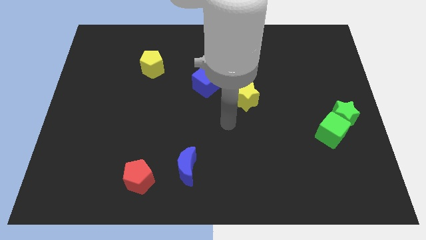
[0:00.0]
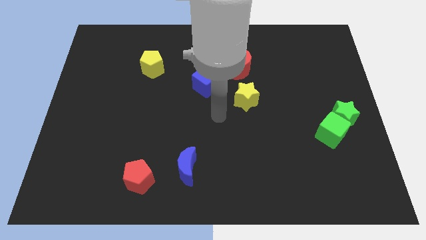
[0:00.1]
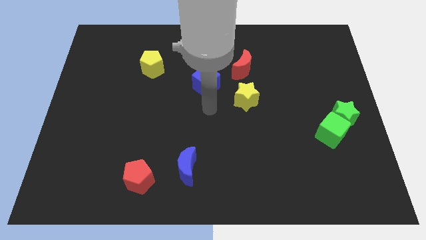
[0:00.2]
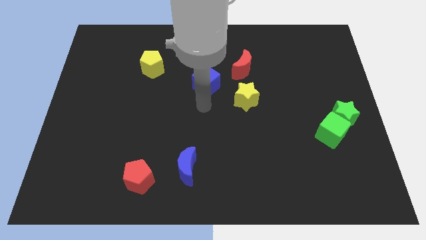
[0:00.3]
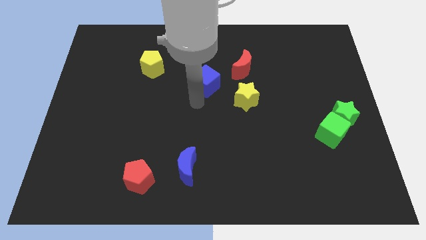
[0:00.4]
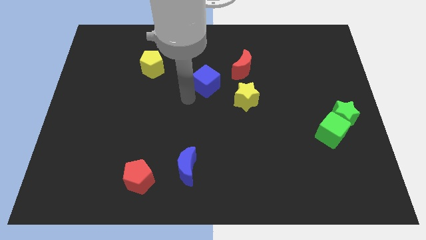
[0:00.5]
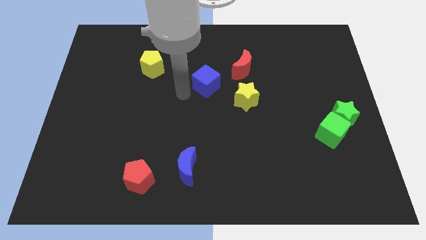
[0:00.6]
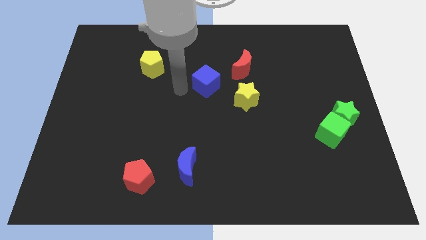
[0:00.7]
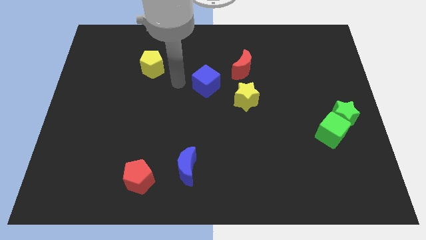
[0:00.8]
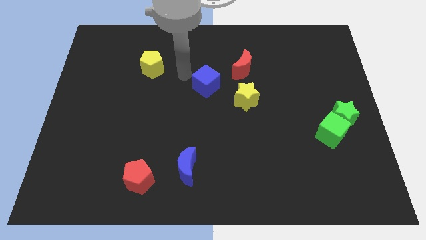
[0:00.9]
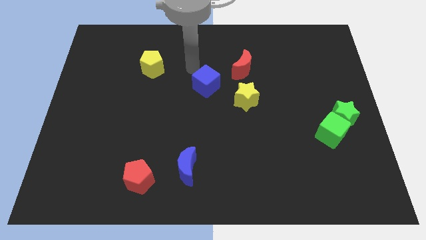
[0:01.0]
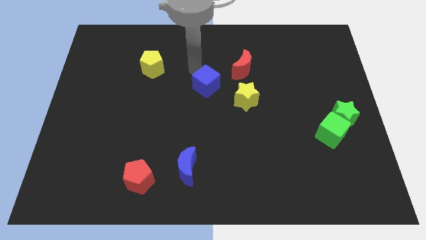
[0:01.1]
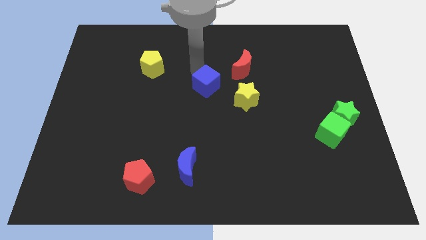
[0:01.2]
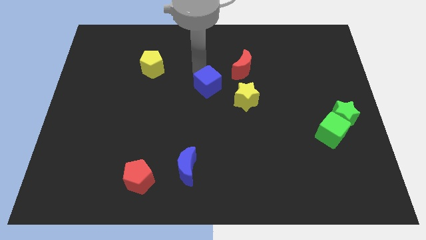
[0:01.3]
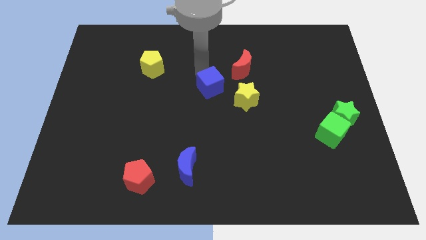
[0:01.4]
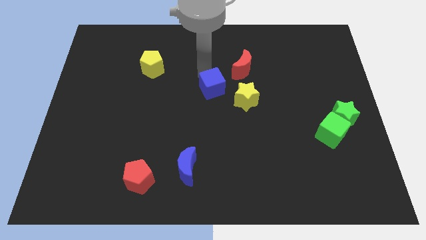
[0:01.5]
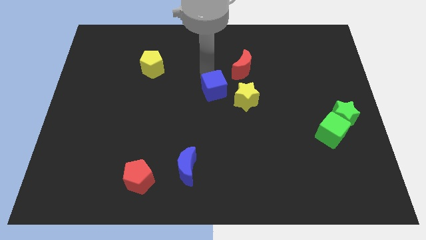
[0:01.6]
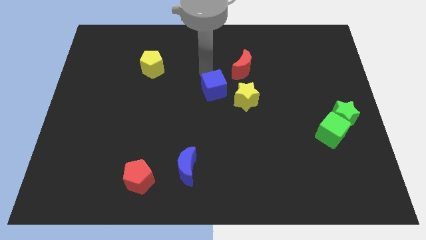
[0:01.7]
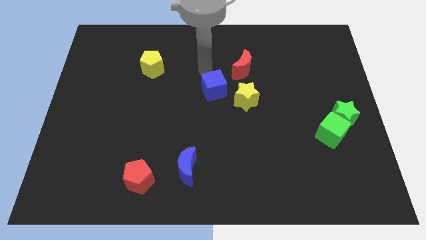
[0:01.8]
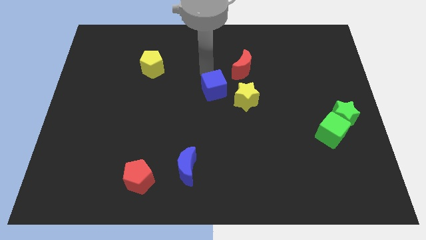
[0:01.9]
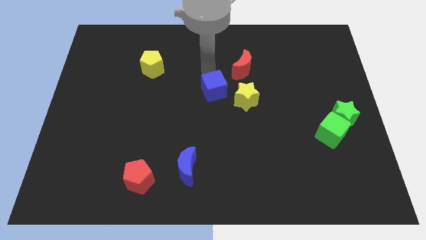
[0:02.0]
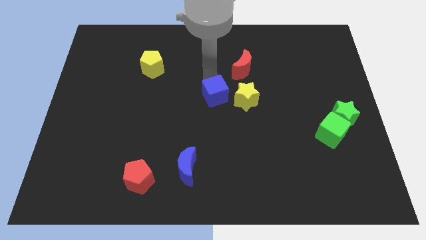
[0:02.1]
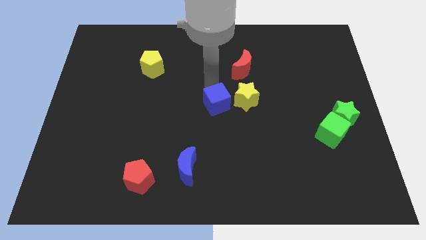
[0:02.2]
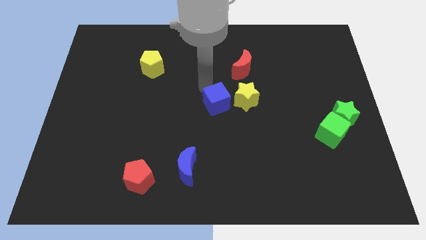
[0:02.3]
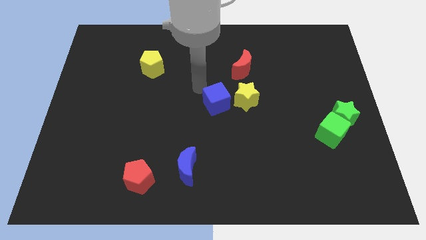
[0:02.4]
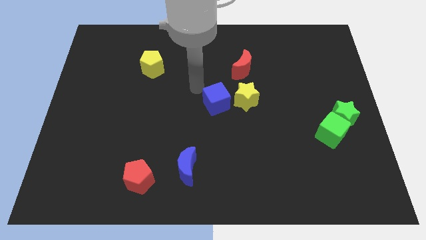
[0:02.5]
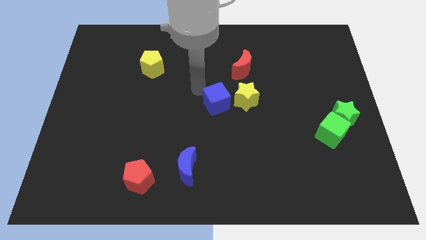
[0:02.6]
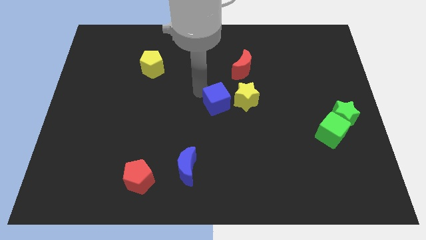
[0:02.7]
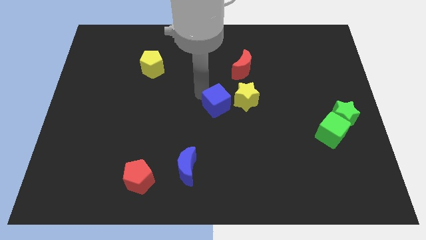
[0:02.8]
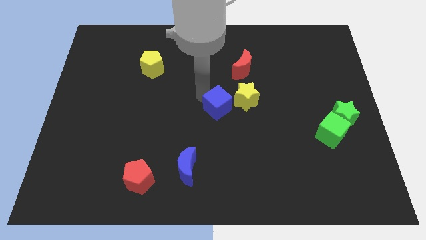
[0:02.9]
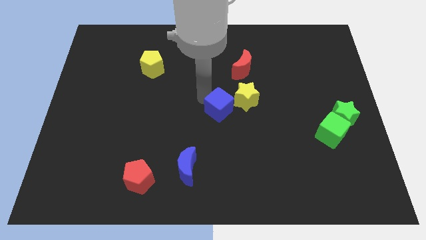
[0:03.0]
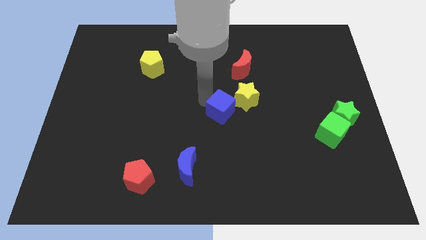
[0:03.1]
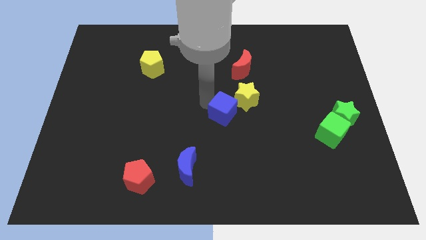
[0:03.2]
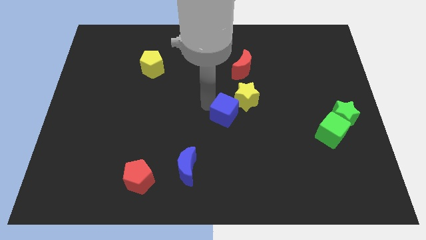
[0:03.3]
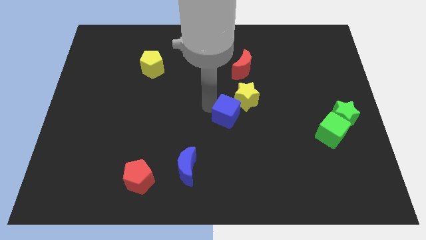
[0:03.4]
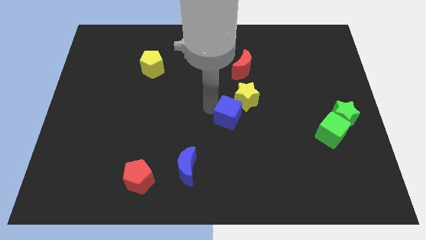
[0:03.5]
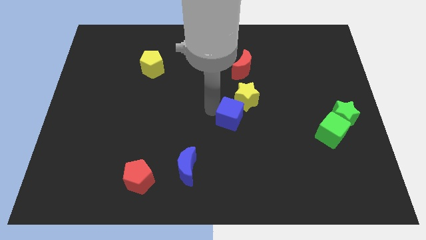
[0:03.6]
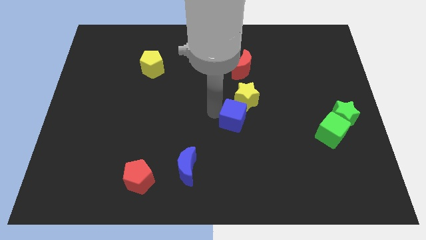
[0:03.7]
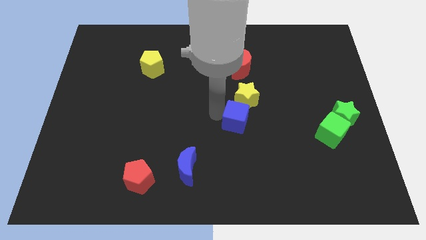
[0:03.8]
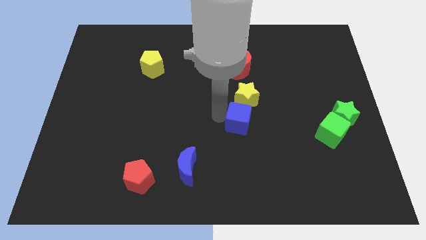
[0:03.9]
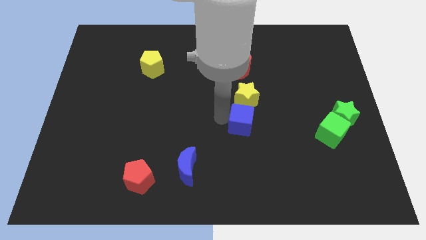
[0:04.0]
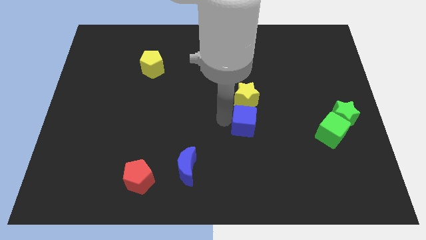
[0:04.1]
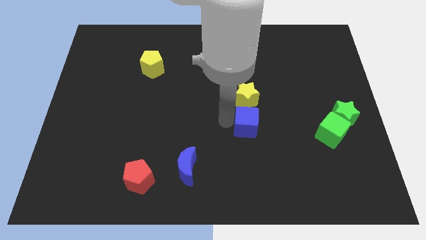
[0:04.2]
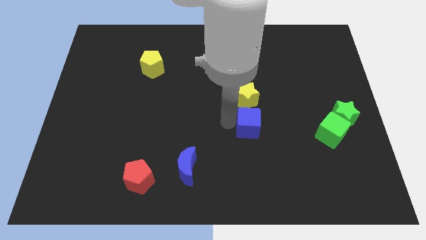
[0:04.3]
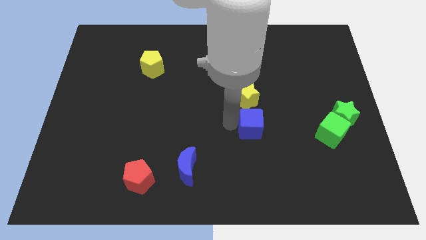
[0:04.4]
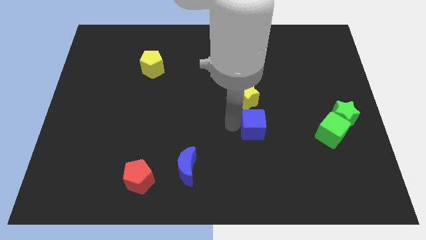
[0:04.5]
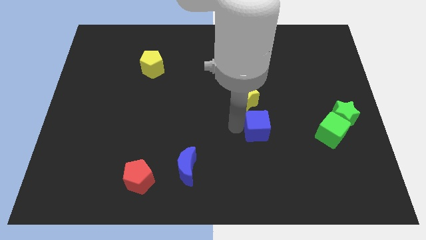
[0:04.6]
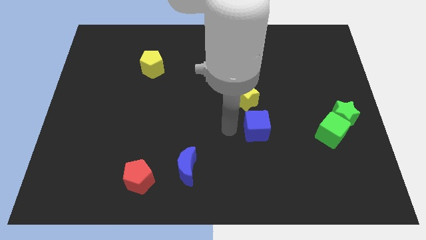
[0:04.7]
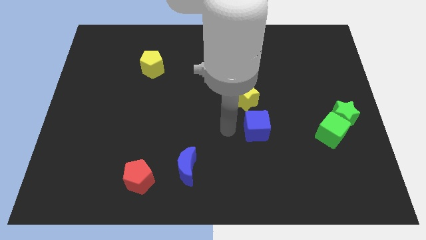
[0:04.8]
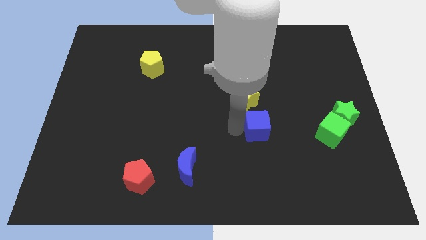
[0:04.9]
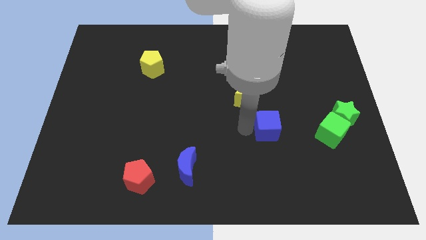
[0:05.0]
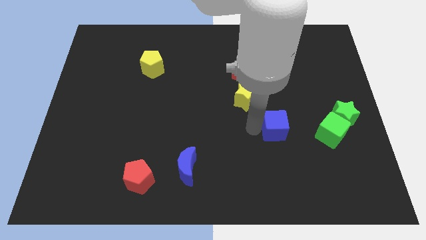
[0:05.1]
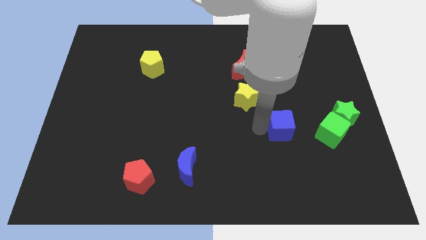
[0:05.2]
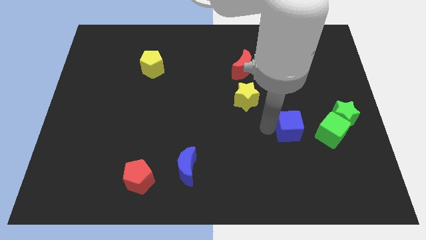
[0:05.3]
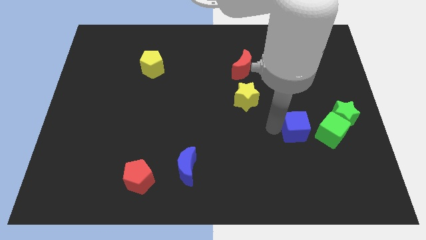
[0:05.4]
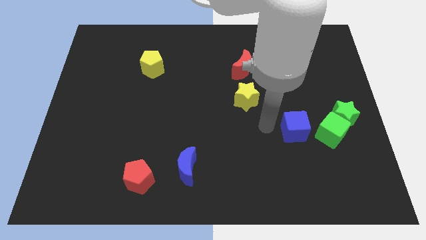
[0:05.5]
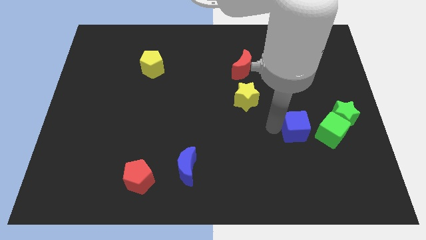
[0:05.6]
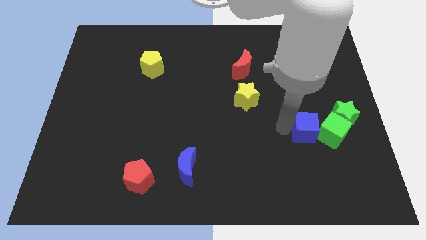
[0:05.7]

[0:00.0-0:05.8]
slide the blue cube to the green cube

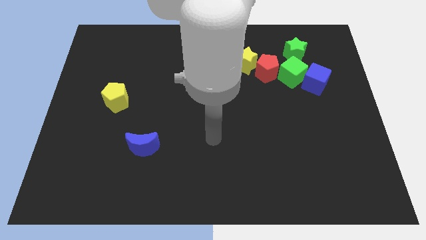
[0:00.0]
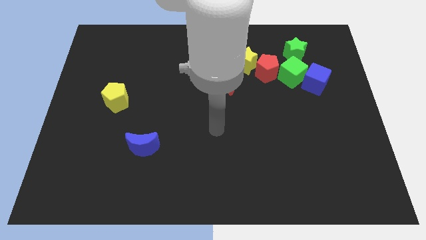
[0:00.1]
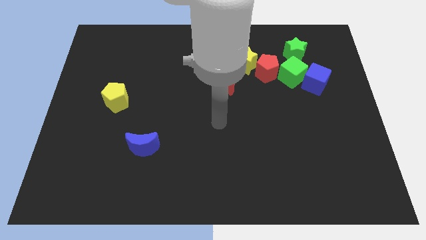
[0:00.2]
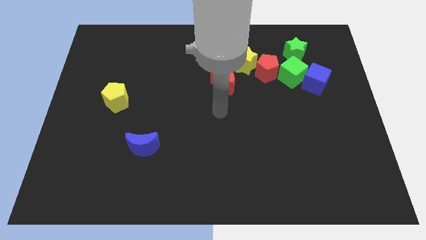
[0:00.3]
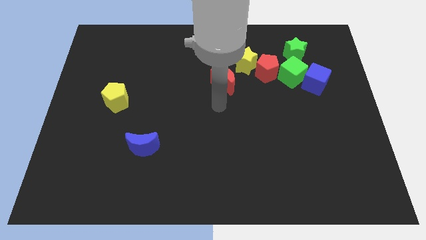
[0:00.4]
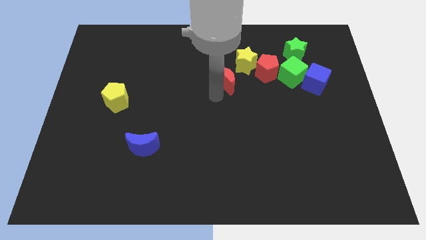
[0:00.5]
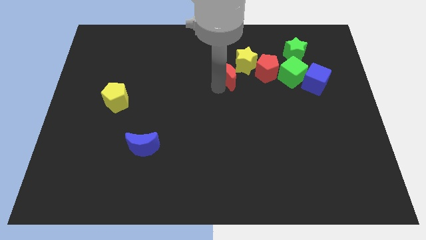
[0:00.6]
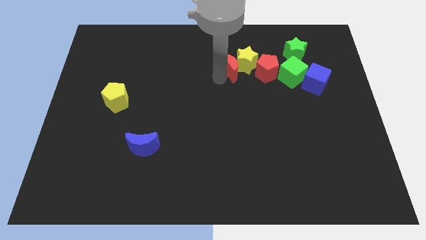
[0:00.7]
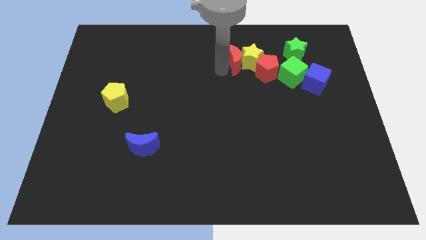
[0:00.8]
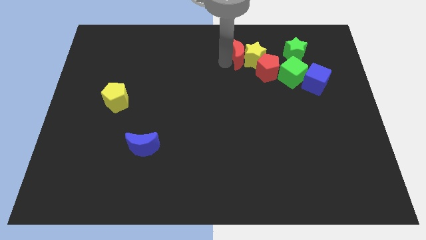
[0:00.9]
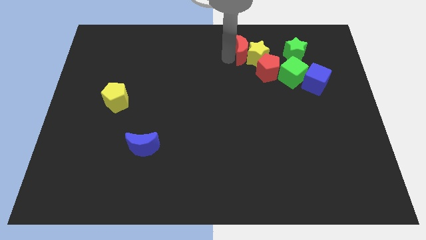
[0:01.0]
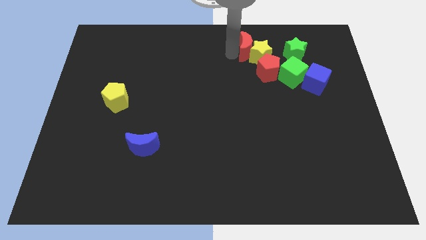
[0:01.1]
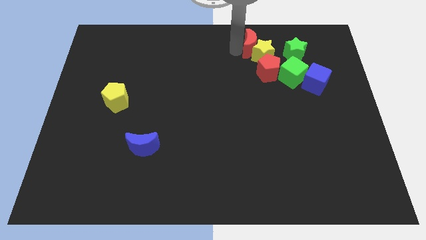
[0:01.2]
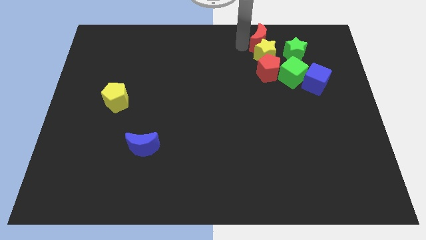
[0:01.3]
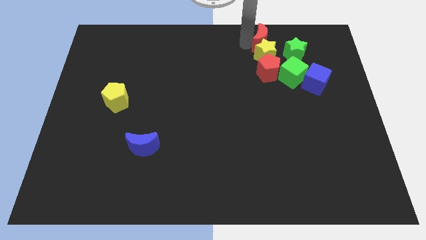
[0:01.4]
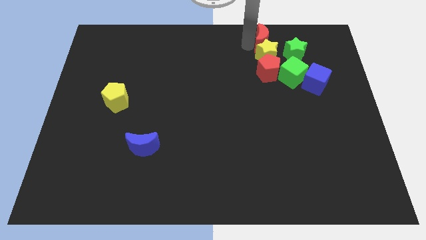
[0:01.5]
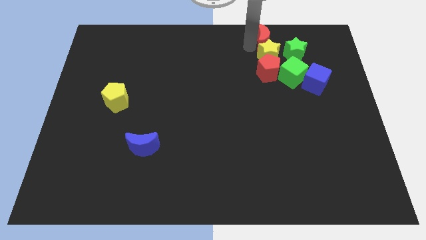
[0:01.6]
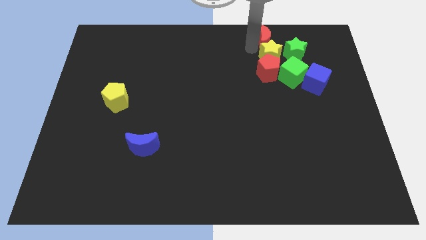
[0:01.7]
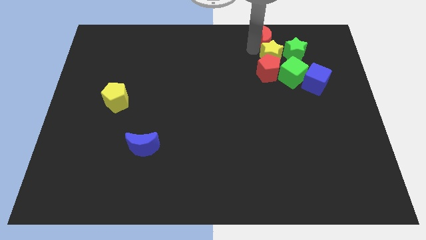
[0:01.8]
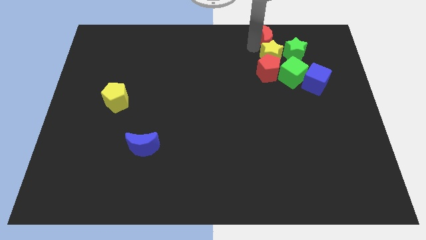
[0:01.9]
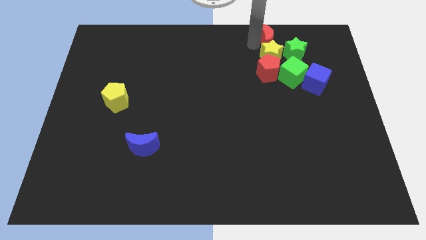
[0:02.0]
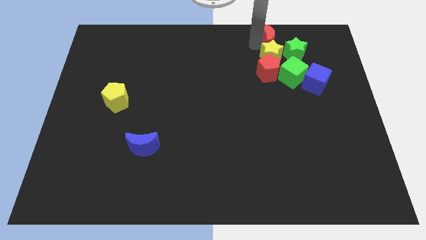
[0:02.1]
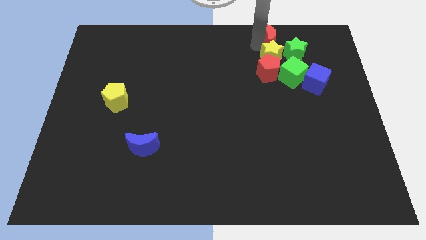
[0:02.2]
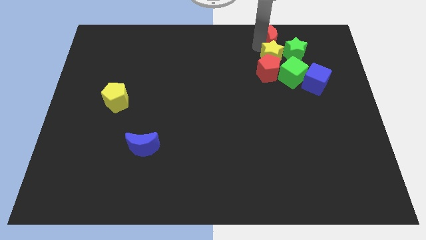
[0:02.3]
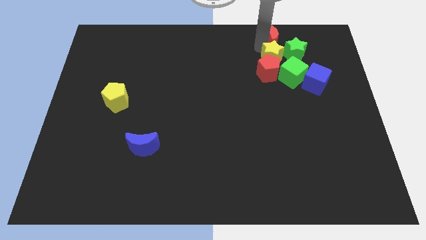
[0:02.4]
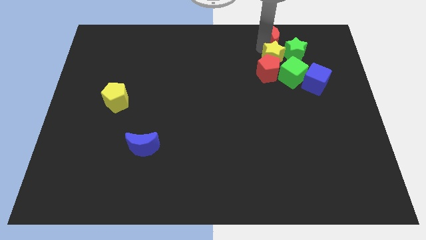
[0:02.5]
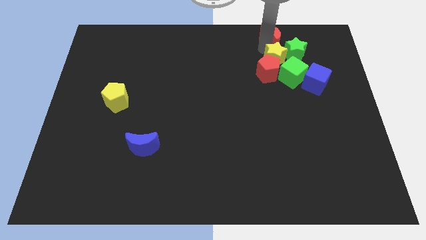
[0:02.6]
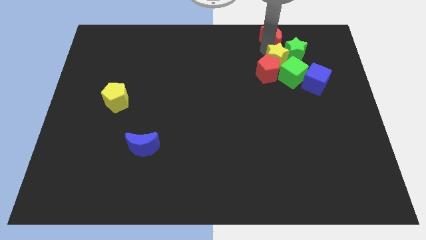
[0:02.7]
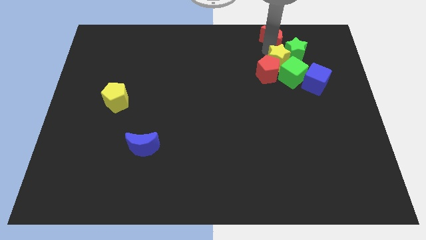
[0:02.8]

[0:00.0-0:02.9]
put the yellow star next to the green cube
